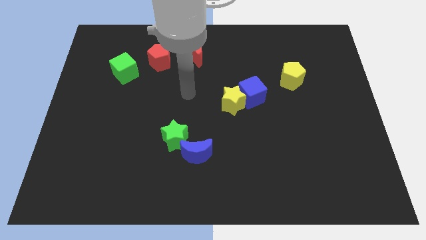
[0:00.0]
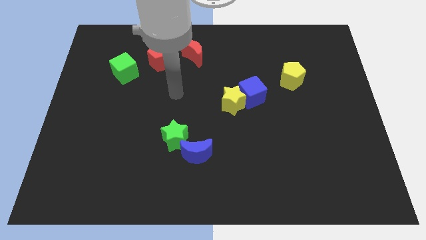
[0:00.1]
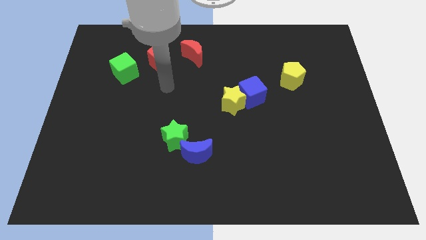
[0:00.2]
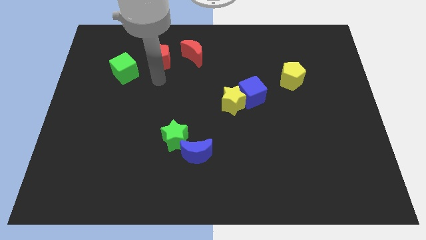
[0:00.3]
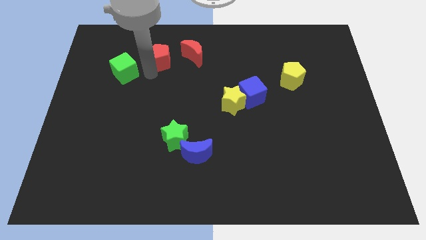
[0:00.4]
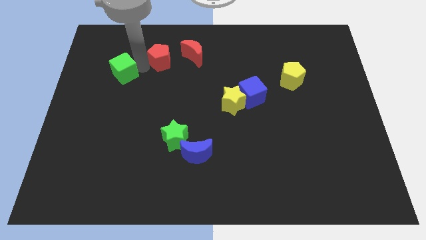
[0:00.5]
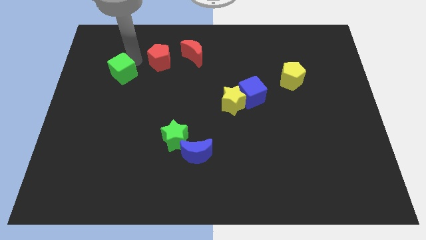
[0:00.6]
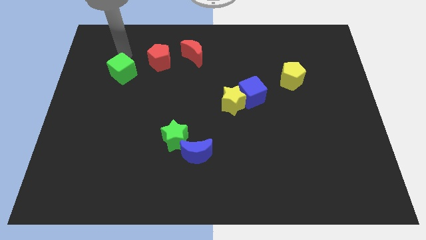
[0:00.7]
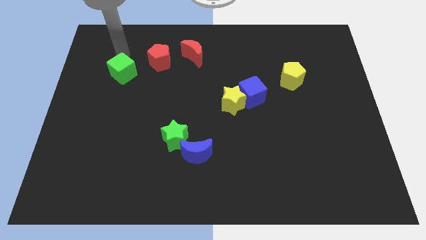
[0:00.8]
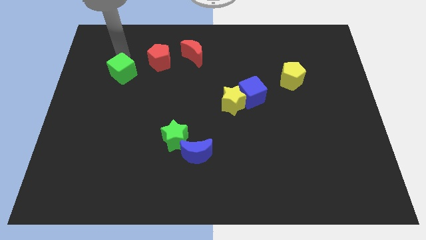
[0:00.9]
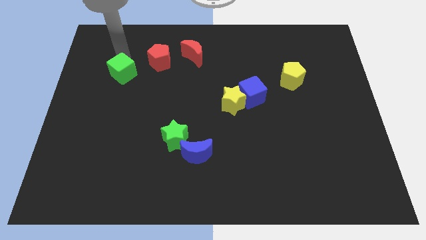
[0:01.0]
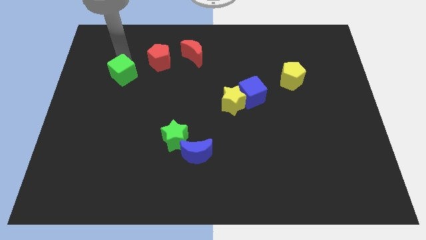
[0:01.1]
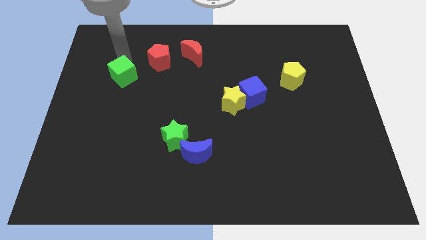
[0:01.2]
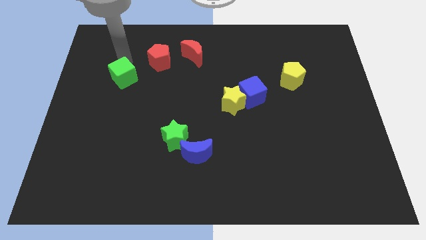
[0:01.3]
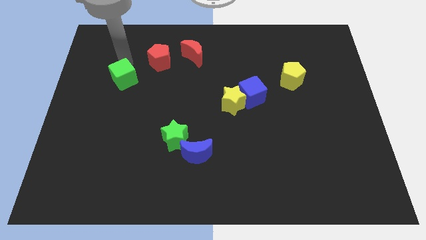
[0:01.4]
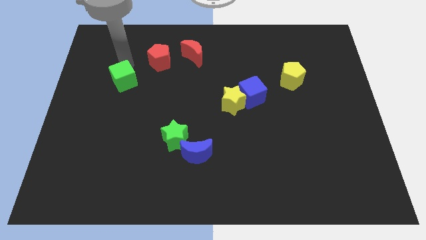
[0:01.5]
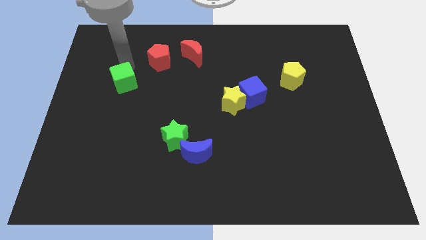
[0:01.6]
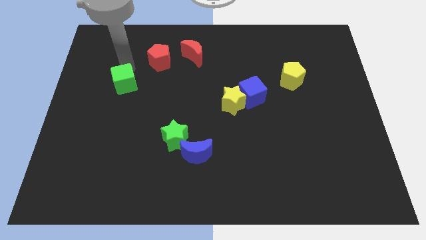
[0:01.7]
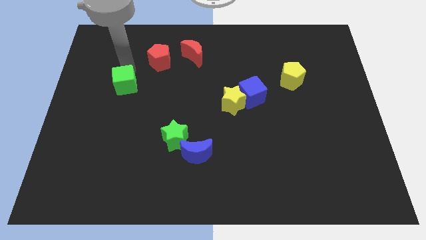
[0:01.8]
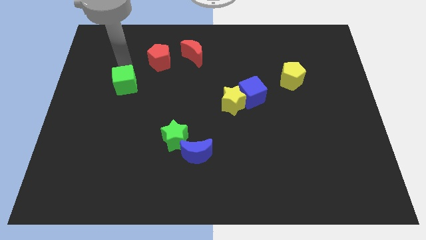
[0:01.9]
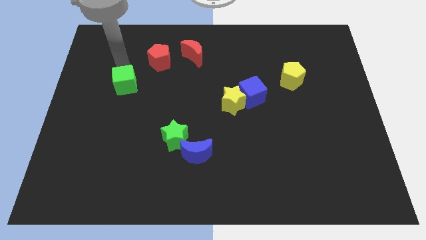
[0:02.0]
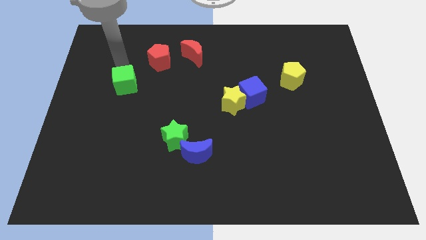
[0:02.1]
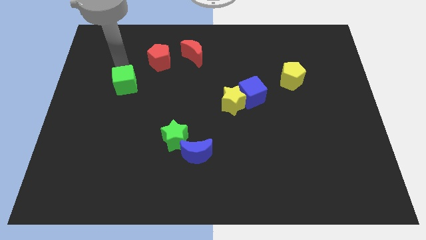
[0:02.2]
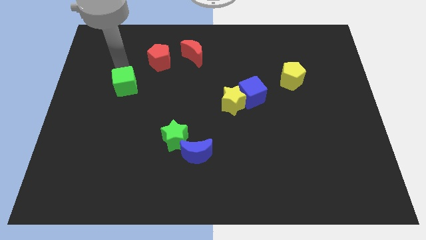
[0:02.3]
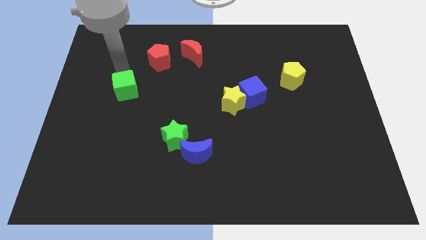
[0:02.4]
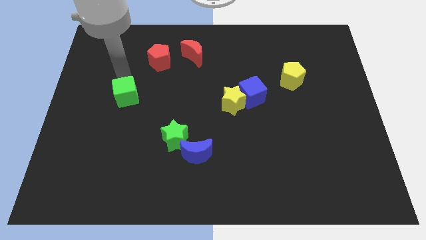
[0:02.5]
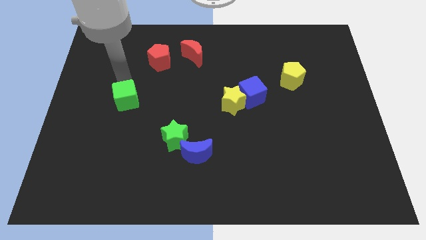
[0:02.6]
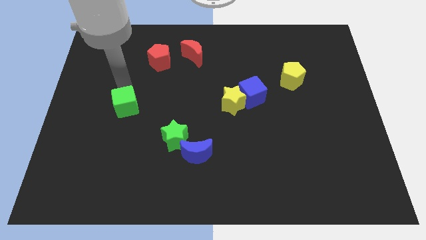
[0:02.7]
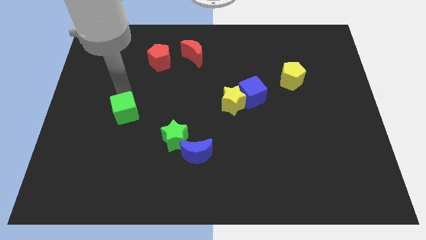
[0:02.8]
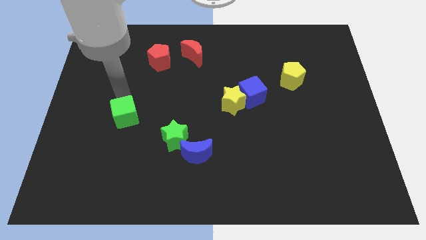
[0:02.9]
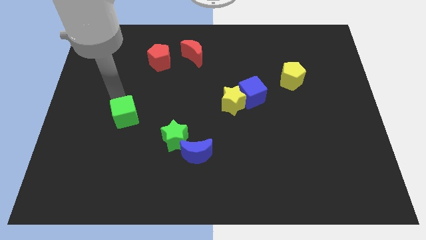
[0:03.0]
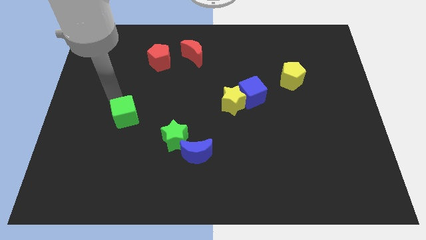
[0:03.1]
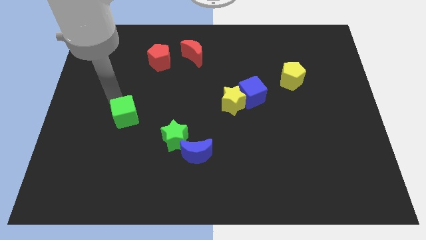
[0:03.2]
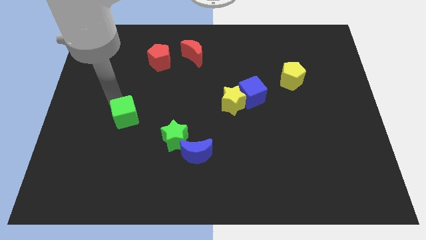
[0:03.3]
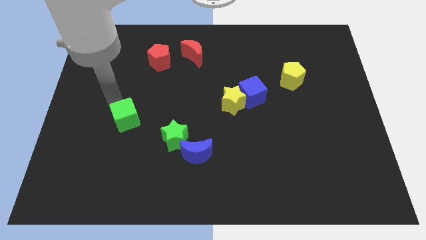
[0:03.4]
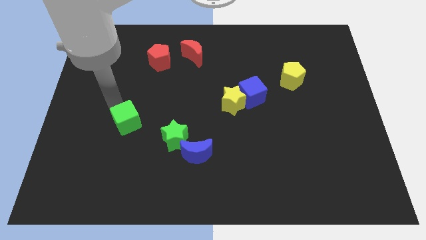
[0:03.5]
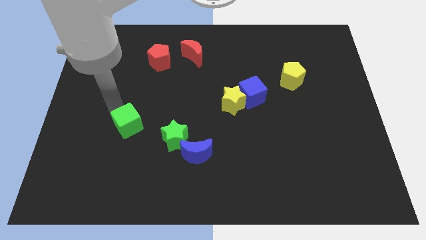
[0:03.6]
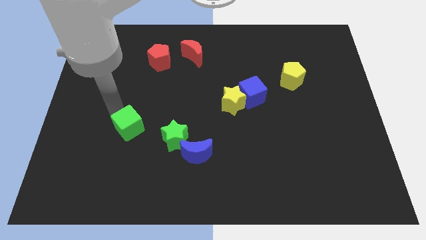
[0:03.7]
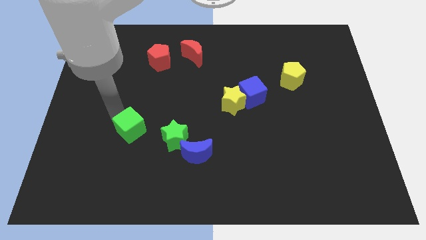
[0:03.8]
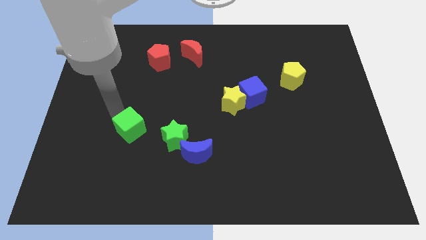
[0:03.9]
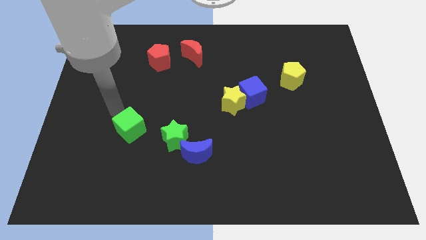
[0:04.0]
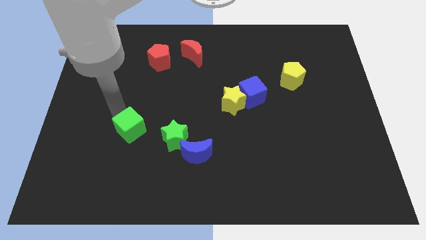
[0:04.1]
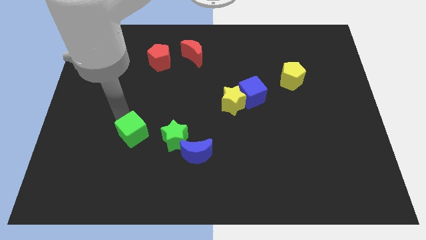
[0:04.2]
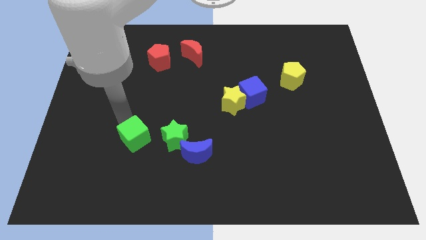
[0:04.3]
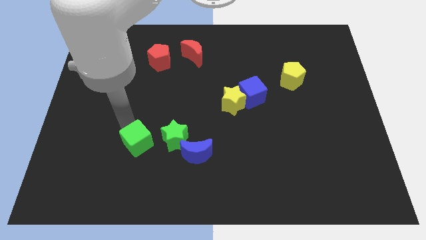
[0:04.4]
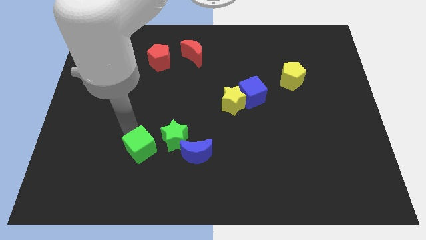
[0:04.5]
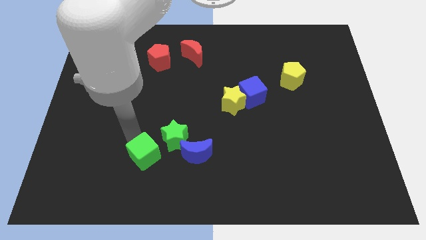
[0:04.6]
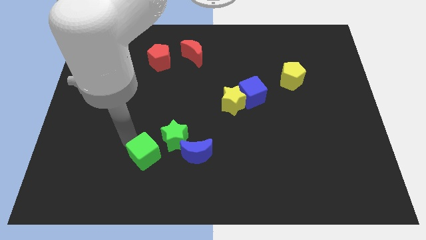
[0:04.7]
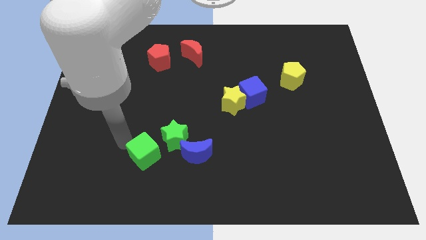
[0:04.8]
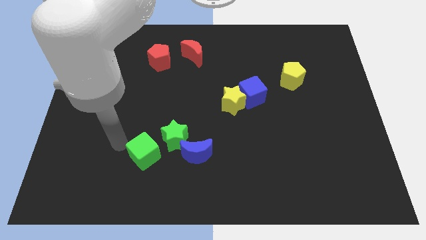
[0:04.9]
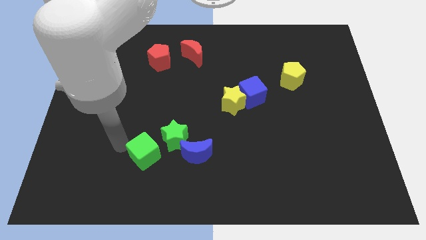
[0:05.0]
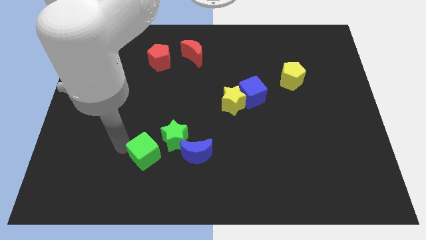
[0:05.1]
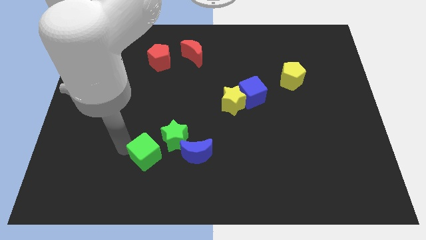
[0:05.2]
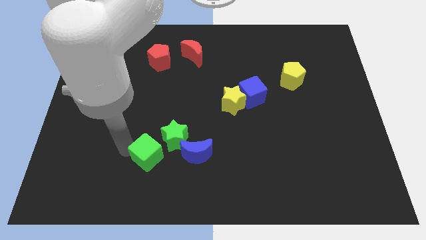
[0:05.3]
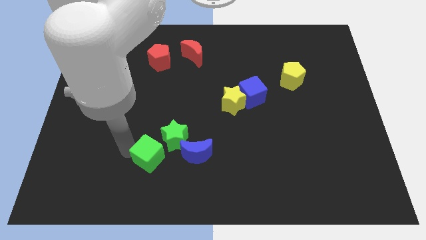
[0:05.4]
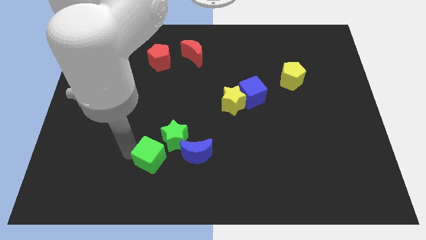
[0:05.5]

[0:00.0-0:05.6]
put the green cube below the green star

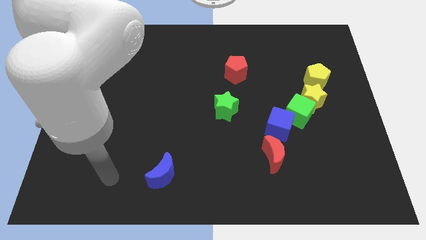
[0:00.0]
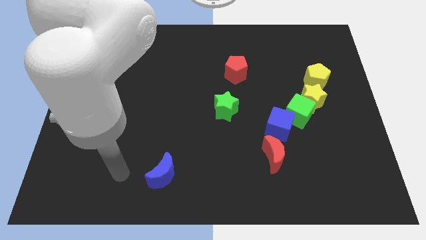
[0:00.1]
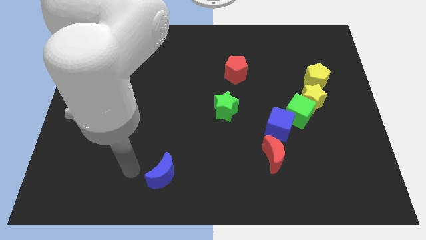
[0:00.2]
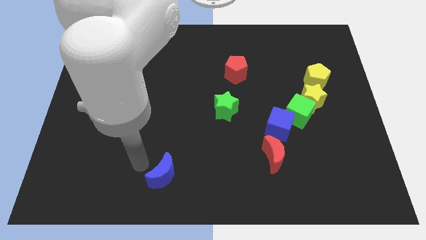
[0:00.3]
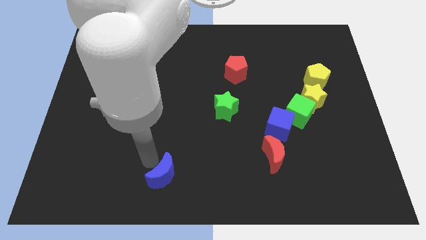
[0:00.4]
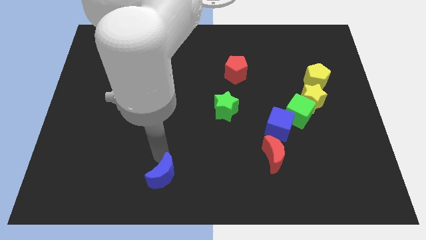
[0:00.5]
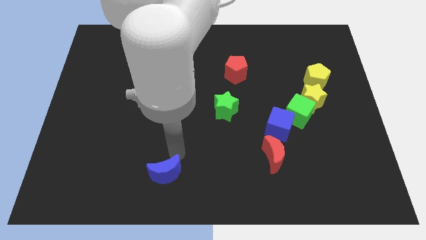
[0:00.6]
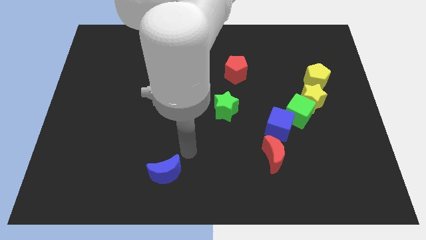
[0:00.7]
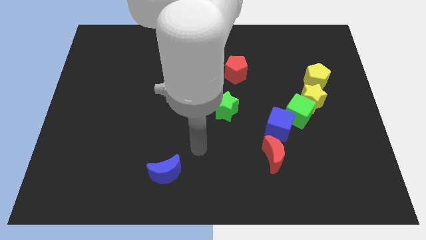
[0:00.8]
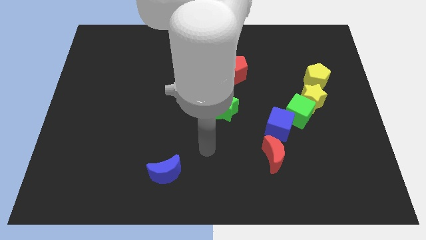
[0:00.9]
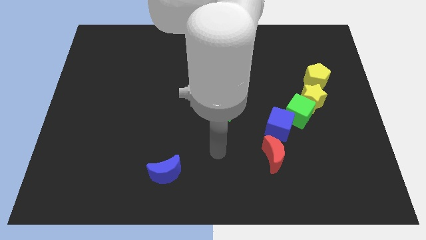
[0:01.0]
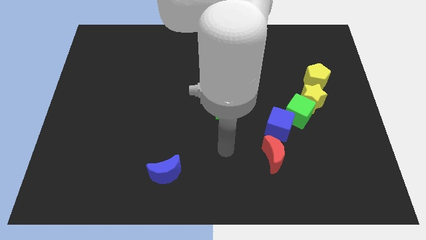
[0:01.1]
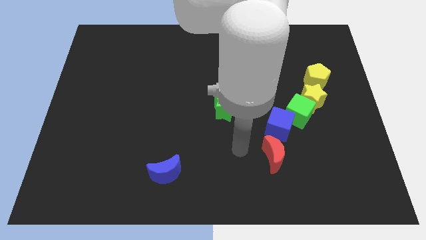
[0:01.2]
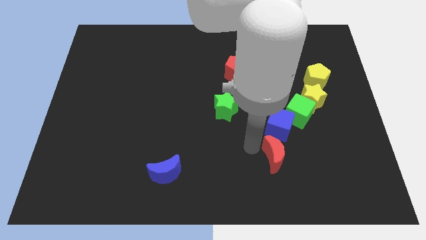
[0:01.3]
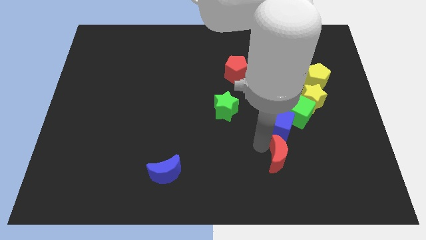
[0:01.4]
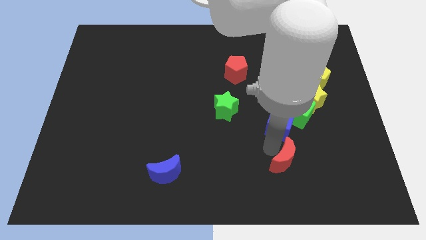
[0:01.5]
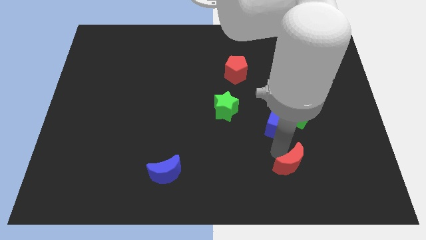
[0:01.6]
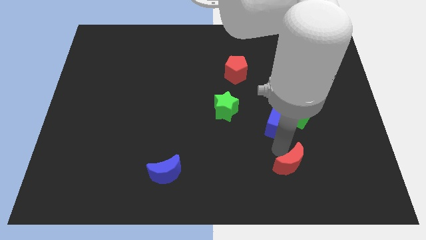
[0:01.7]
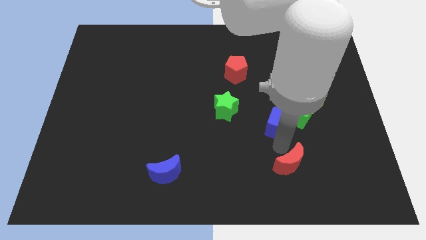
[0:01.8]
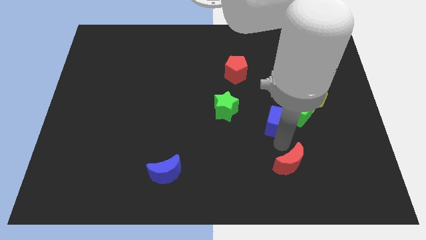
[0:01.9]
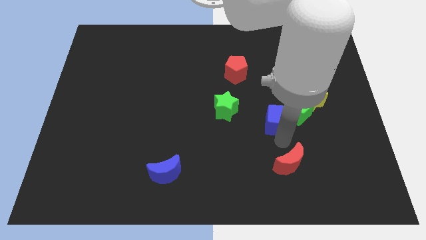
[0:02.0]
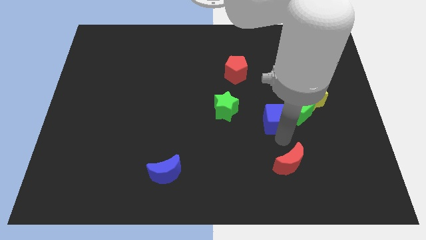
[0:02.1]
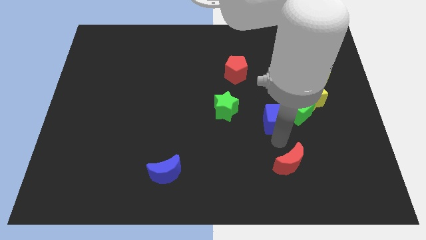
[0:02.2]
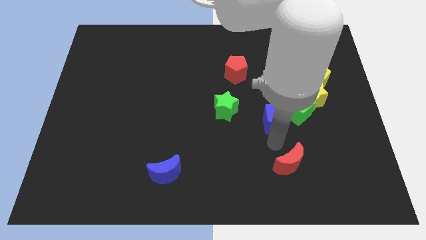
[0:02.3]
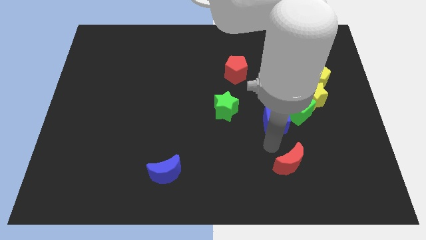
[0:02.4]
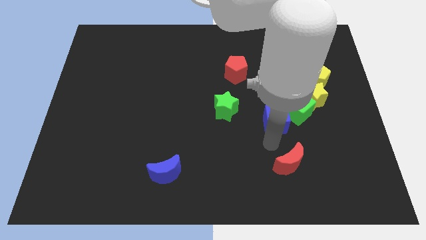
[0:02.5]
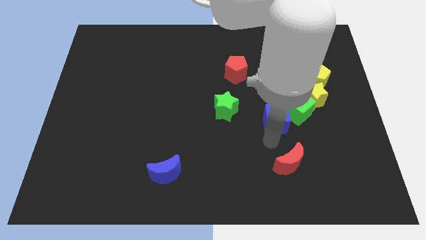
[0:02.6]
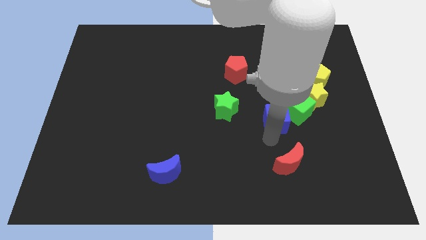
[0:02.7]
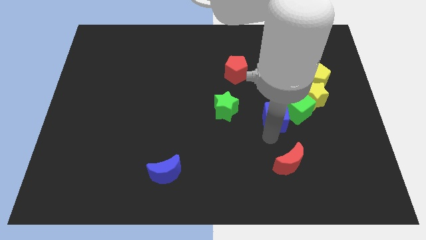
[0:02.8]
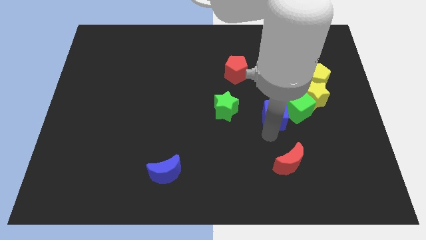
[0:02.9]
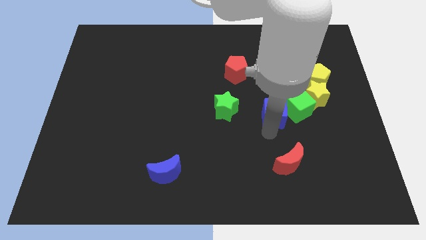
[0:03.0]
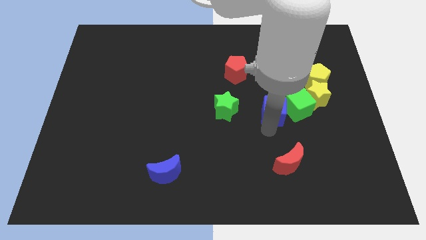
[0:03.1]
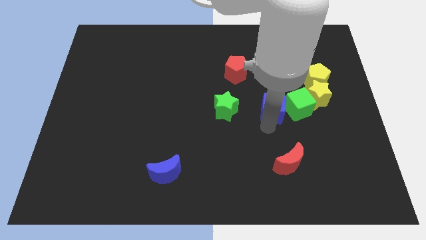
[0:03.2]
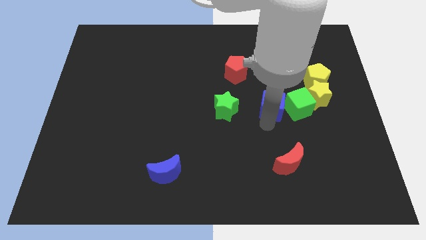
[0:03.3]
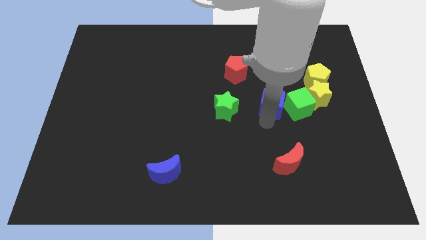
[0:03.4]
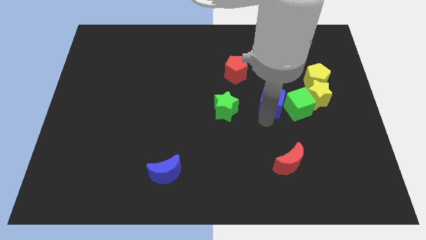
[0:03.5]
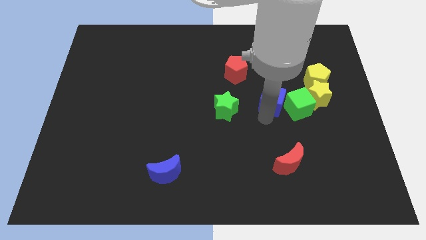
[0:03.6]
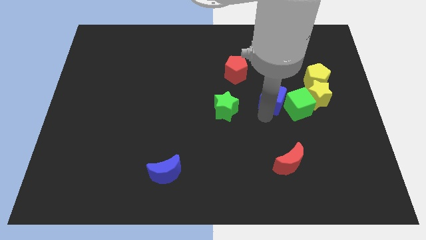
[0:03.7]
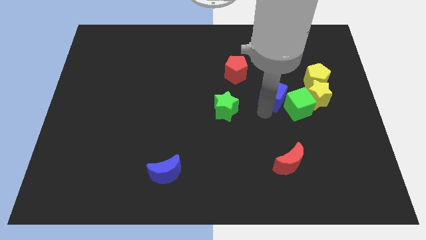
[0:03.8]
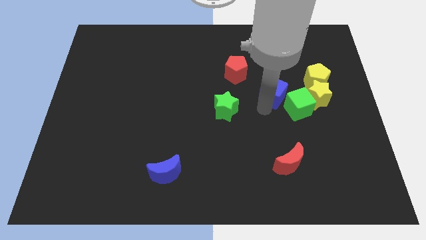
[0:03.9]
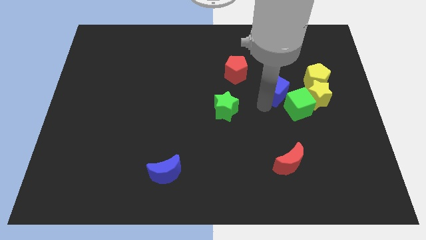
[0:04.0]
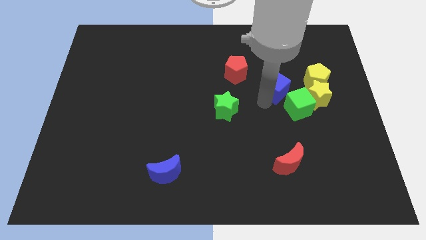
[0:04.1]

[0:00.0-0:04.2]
push the blue cube to the top of the green cube
